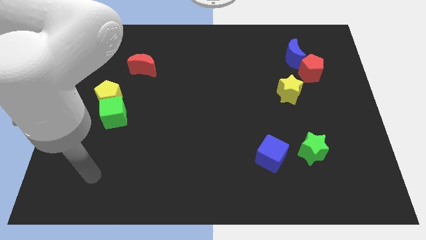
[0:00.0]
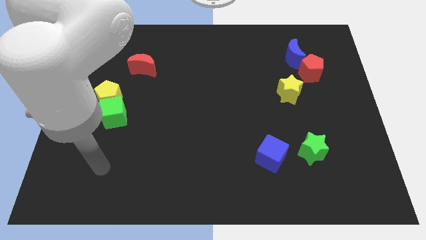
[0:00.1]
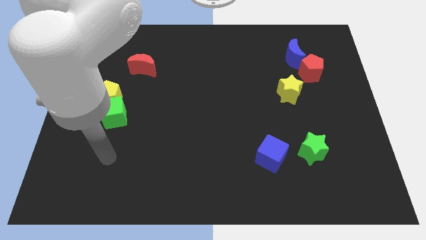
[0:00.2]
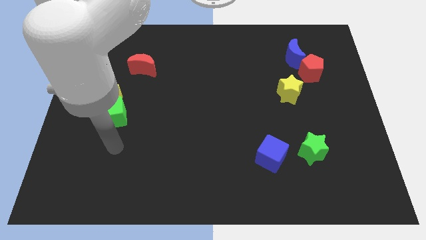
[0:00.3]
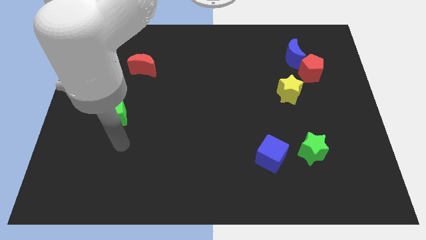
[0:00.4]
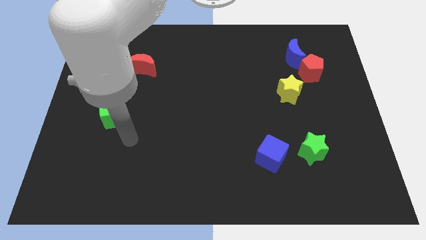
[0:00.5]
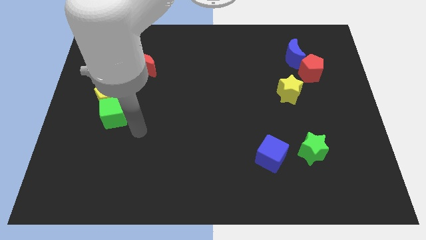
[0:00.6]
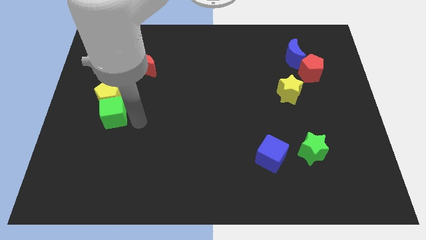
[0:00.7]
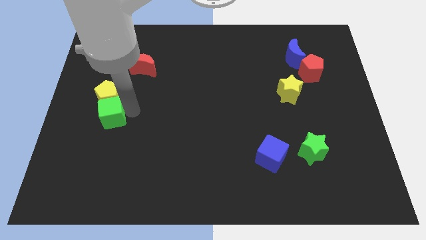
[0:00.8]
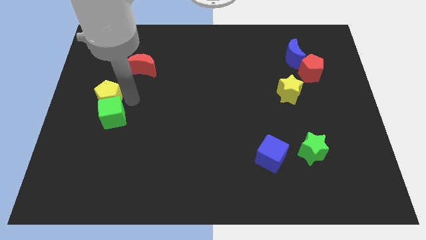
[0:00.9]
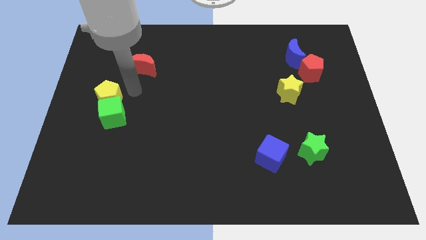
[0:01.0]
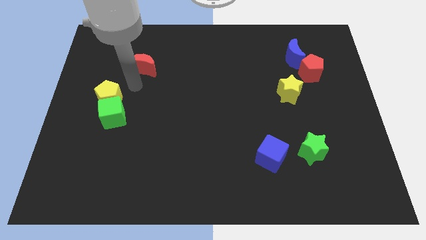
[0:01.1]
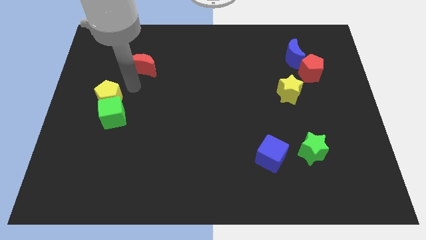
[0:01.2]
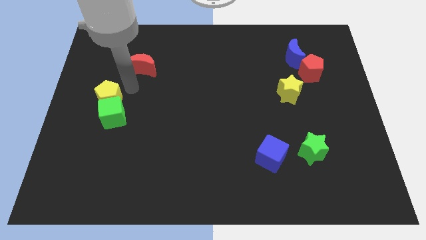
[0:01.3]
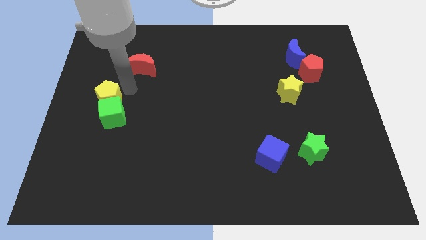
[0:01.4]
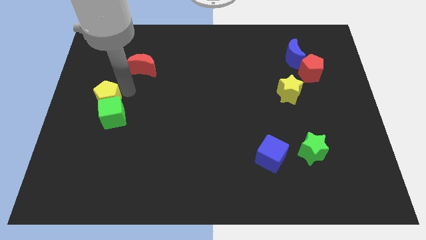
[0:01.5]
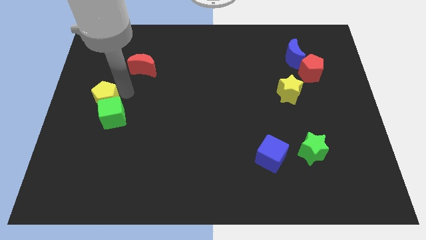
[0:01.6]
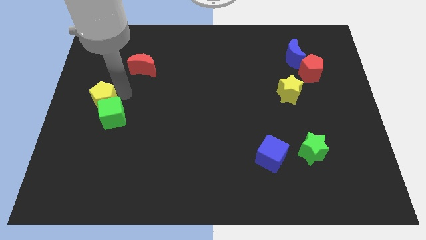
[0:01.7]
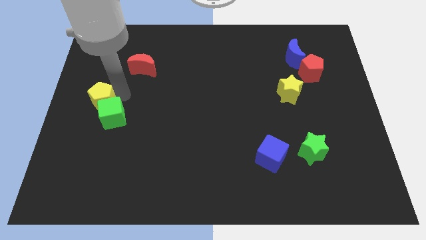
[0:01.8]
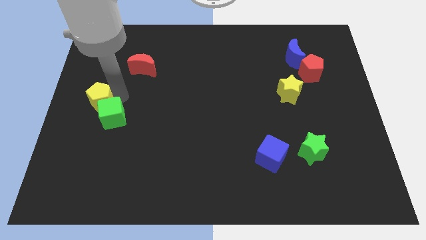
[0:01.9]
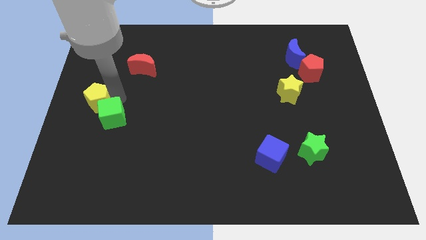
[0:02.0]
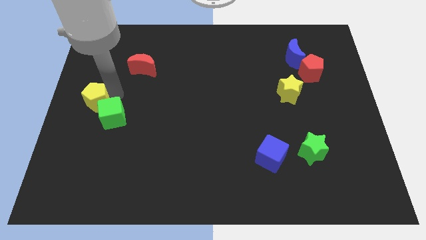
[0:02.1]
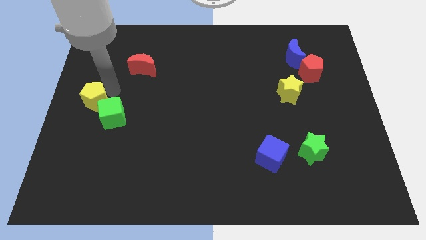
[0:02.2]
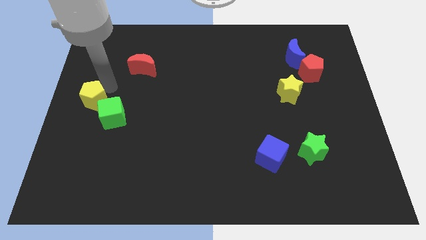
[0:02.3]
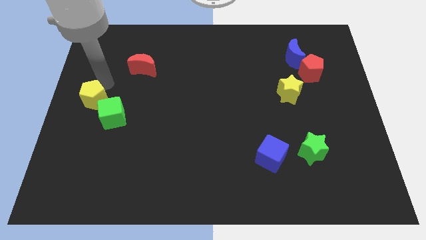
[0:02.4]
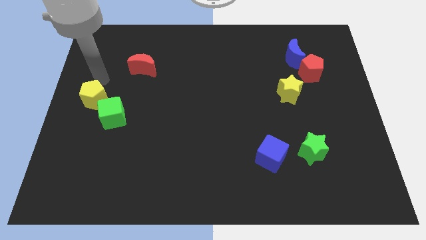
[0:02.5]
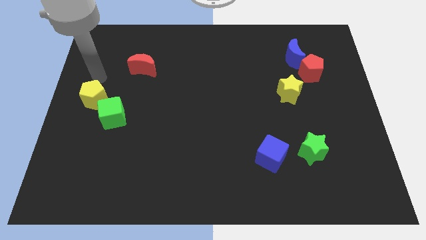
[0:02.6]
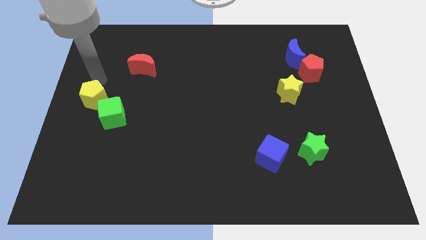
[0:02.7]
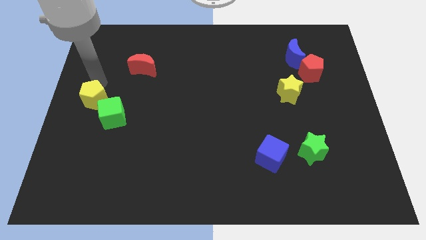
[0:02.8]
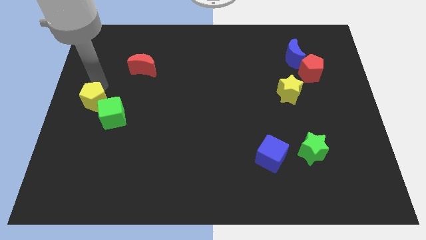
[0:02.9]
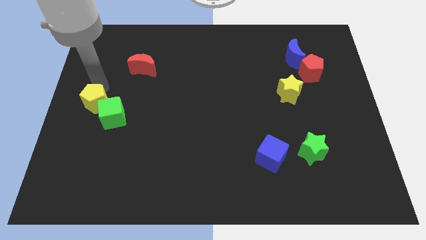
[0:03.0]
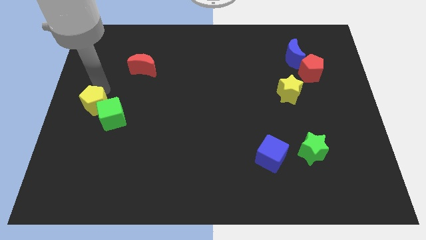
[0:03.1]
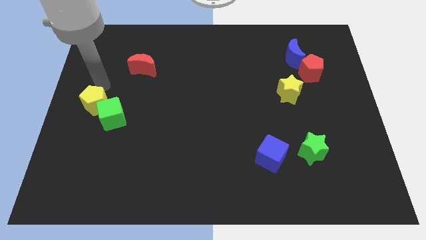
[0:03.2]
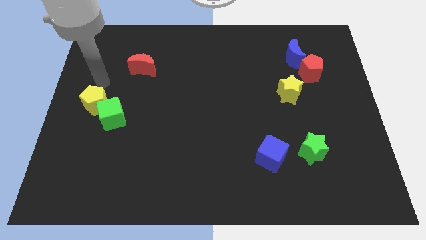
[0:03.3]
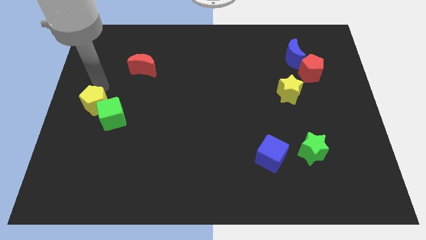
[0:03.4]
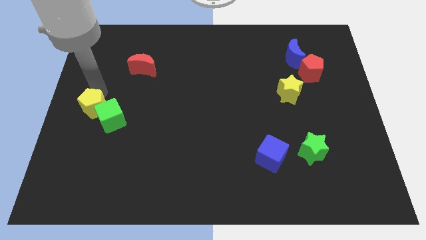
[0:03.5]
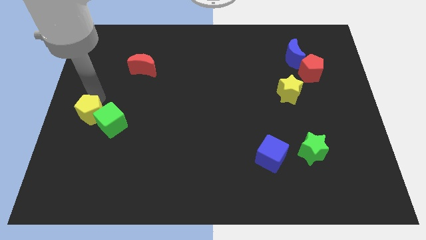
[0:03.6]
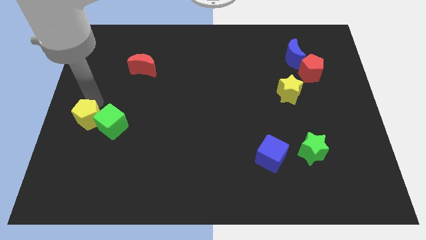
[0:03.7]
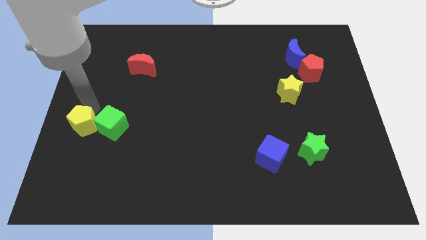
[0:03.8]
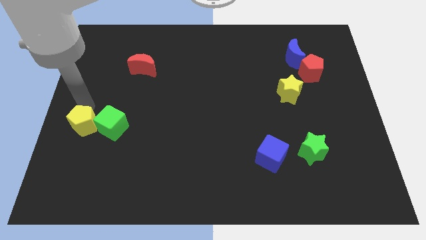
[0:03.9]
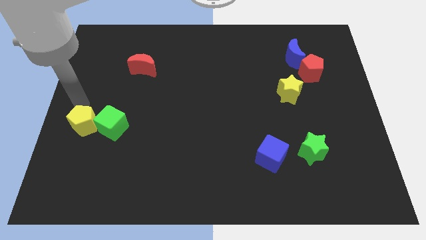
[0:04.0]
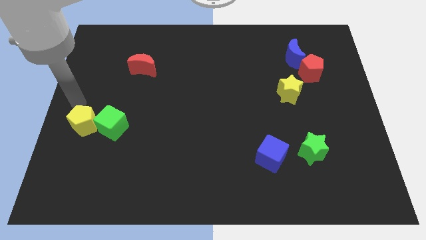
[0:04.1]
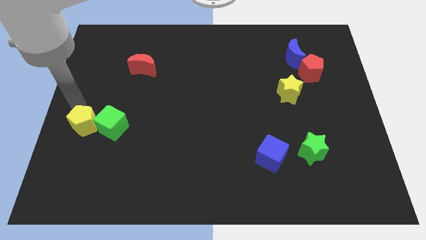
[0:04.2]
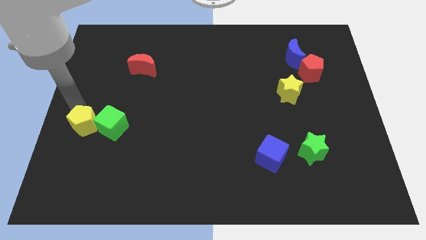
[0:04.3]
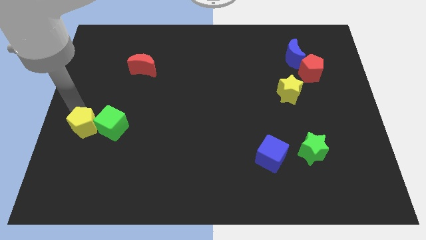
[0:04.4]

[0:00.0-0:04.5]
move the yellow pentagon a little downwards

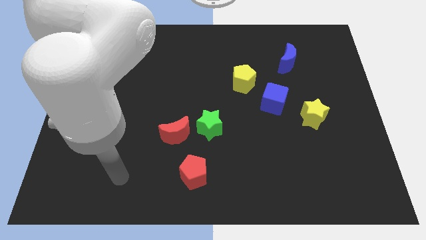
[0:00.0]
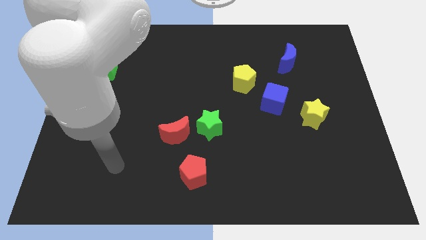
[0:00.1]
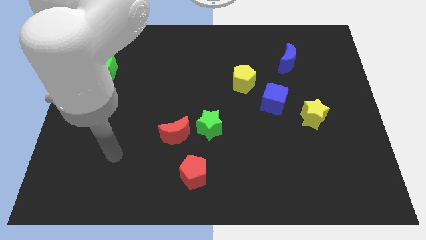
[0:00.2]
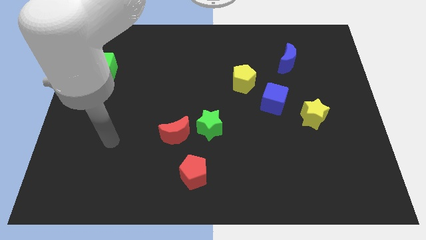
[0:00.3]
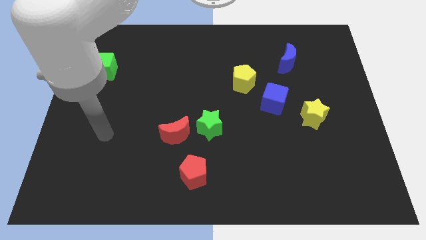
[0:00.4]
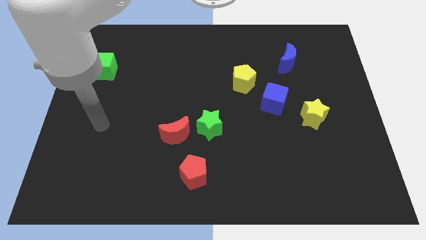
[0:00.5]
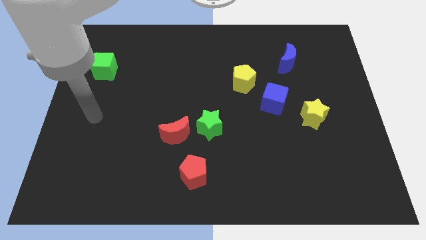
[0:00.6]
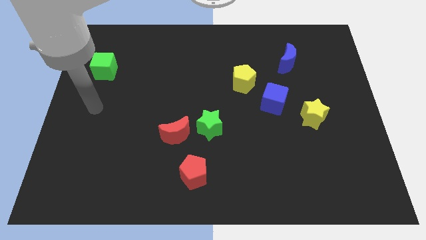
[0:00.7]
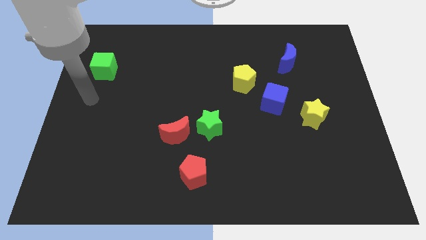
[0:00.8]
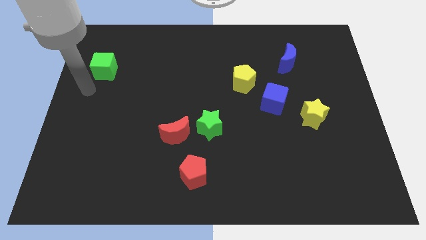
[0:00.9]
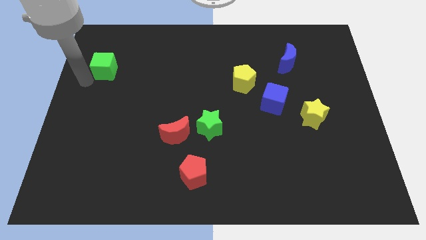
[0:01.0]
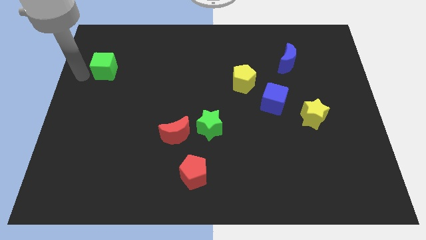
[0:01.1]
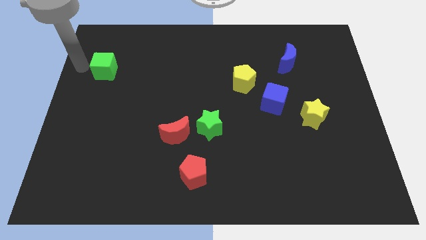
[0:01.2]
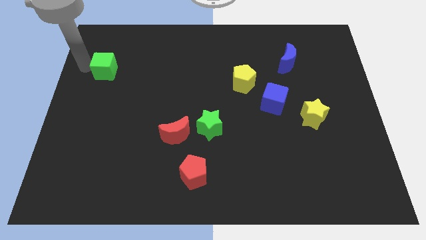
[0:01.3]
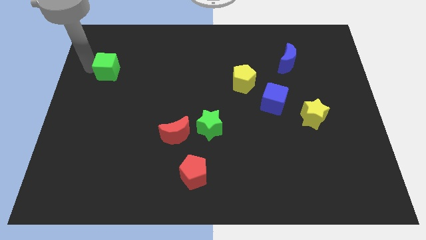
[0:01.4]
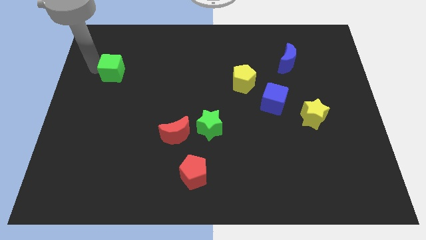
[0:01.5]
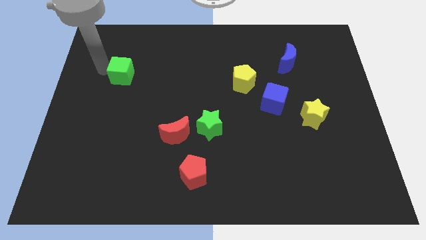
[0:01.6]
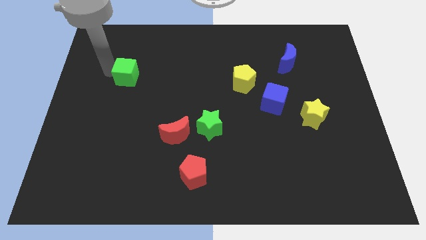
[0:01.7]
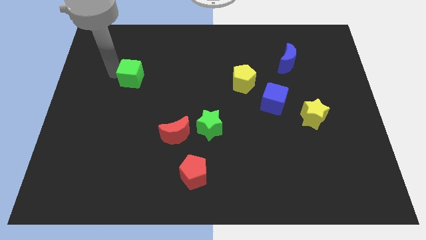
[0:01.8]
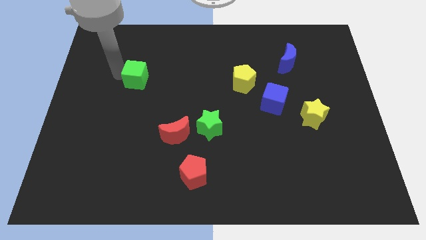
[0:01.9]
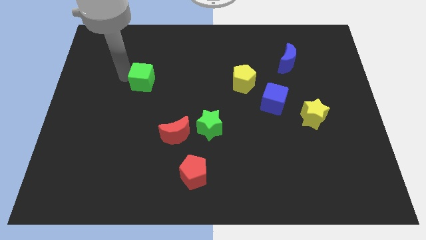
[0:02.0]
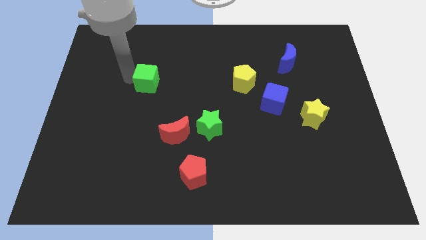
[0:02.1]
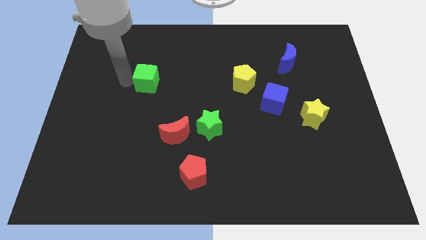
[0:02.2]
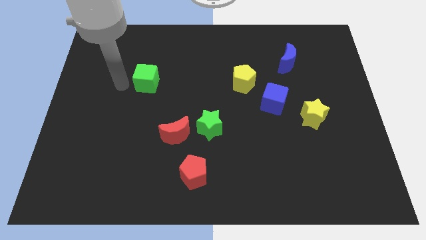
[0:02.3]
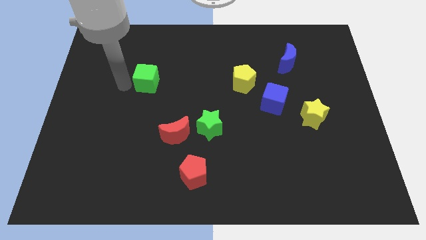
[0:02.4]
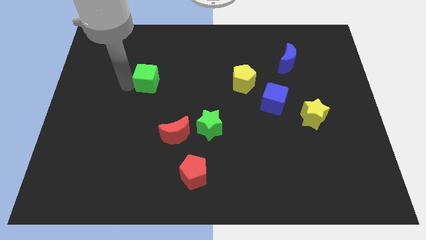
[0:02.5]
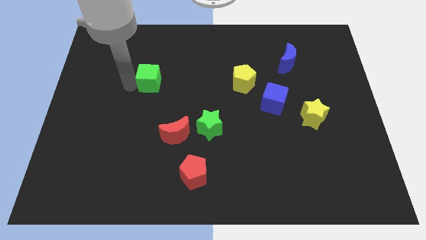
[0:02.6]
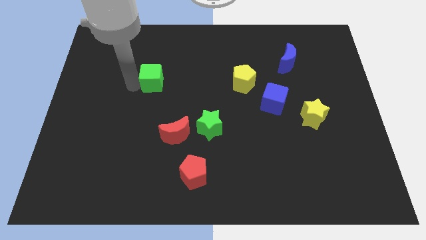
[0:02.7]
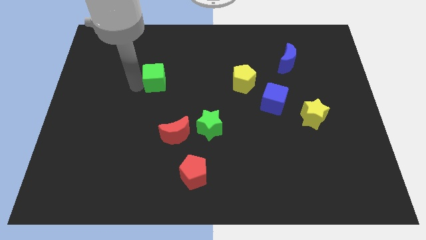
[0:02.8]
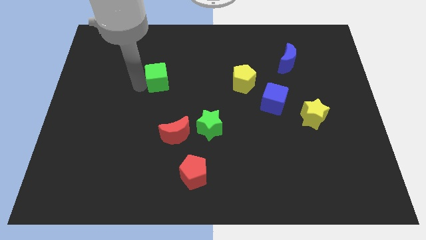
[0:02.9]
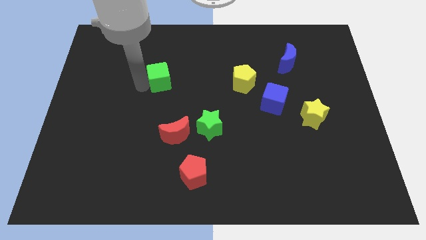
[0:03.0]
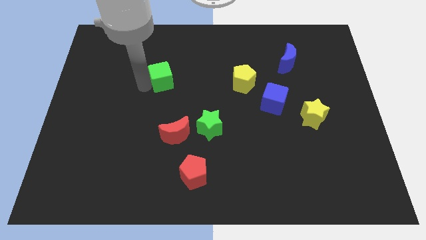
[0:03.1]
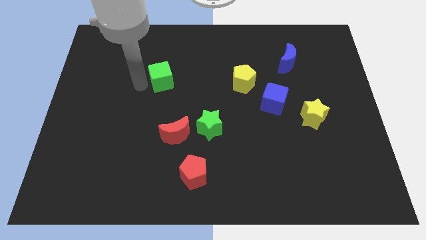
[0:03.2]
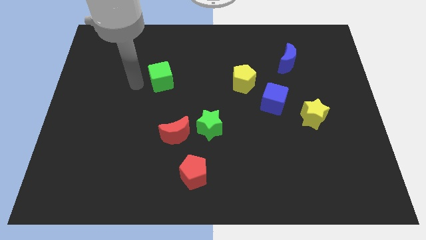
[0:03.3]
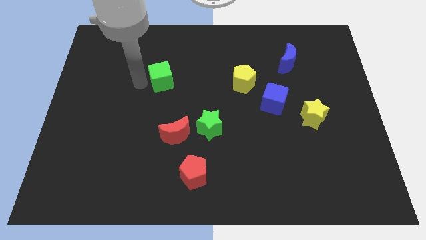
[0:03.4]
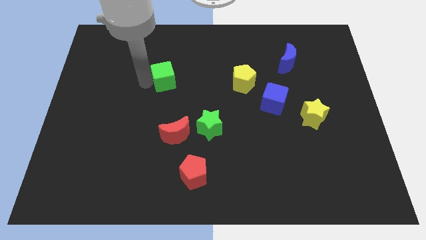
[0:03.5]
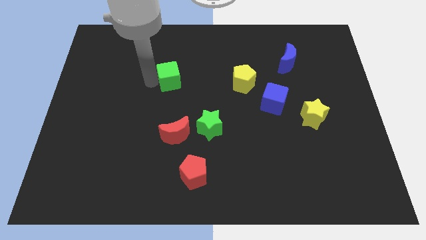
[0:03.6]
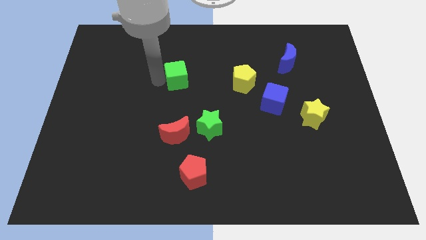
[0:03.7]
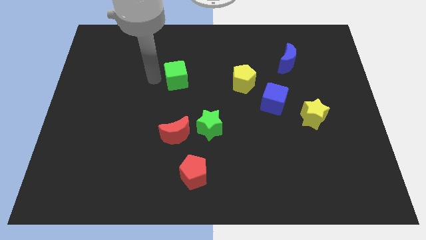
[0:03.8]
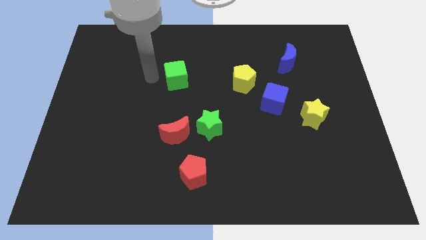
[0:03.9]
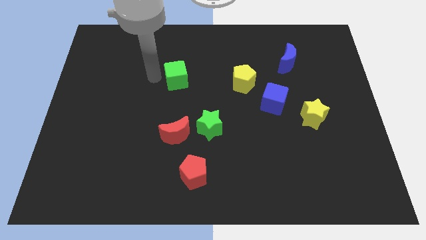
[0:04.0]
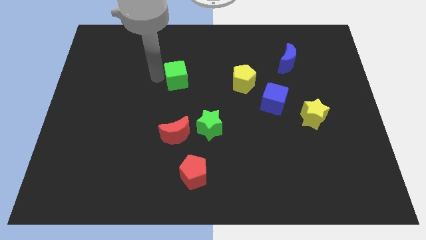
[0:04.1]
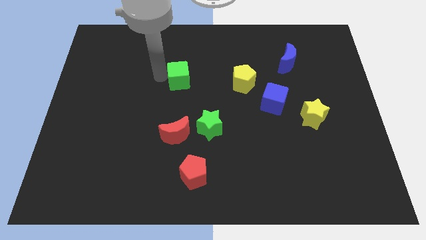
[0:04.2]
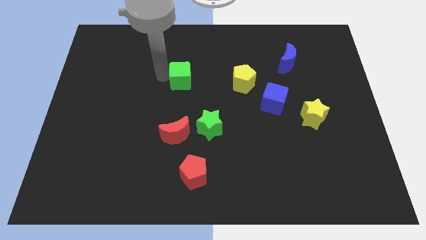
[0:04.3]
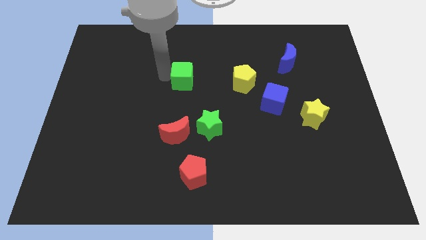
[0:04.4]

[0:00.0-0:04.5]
push the green cube right
